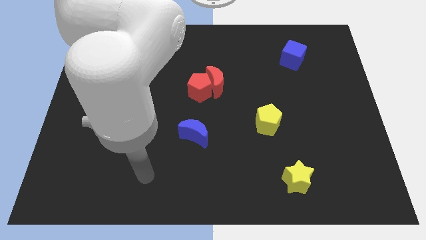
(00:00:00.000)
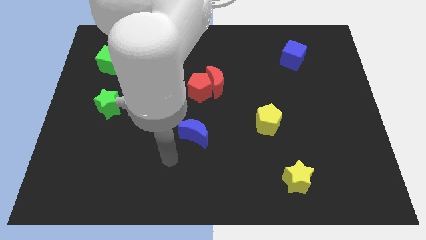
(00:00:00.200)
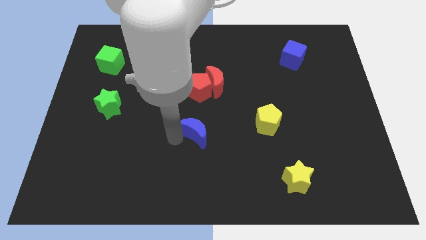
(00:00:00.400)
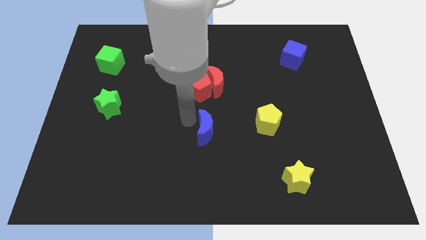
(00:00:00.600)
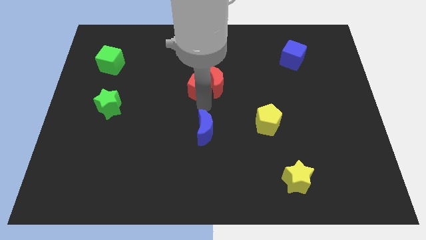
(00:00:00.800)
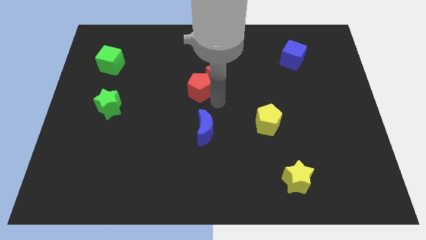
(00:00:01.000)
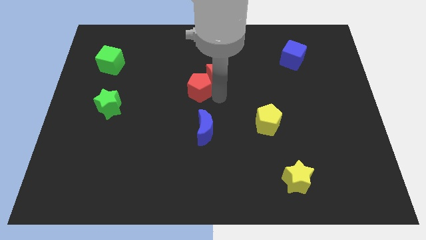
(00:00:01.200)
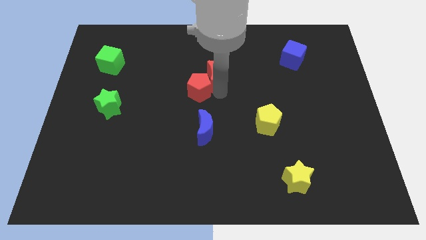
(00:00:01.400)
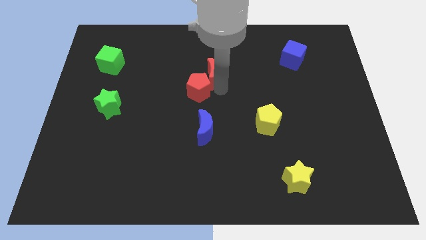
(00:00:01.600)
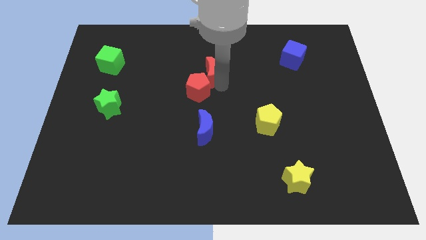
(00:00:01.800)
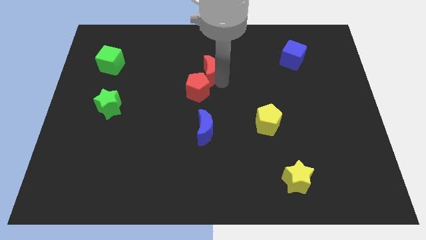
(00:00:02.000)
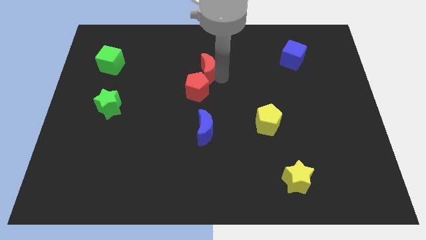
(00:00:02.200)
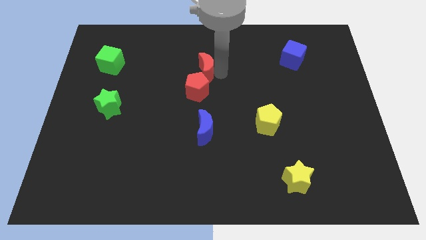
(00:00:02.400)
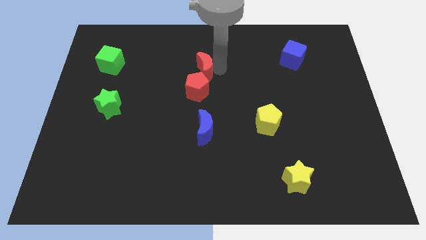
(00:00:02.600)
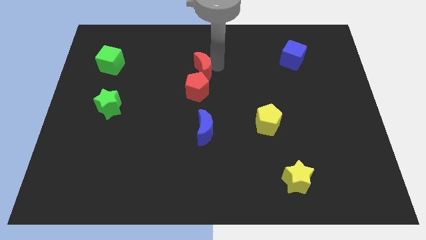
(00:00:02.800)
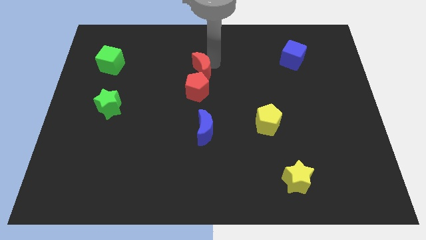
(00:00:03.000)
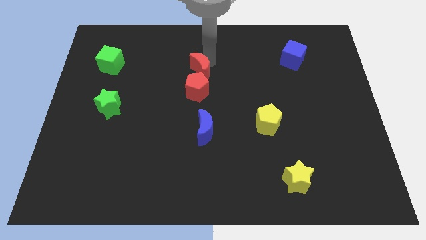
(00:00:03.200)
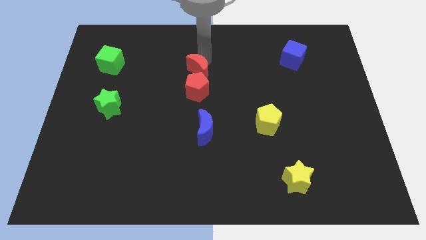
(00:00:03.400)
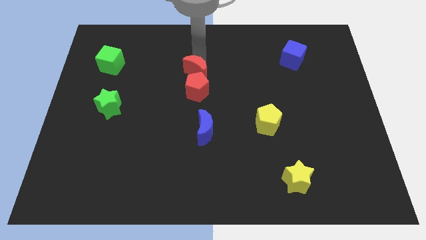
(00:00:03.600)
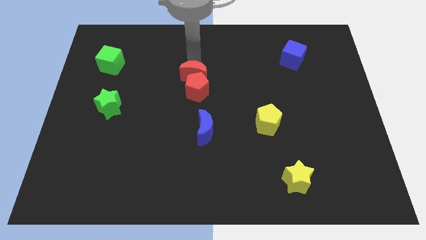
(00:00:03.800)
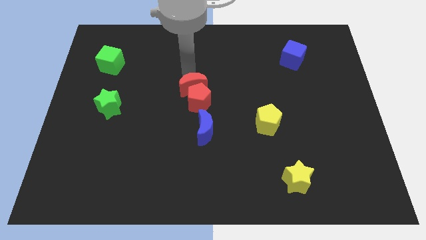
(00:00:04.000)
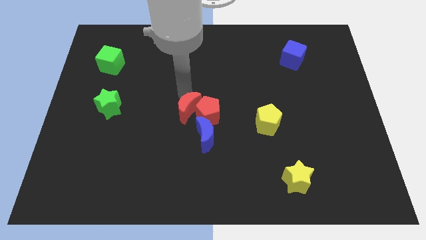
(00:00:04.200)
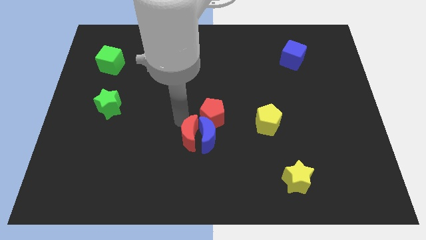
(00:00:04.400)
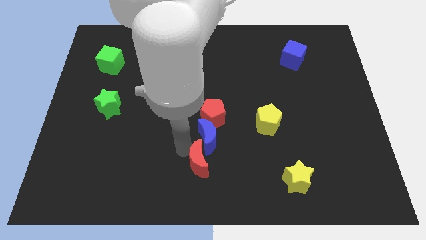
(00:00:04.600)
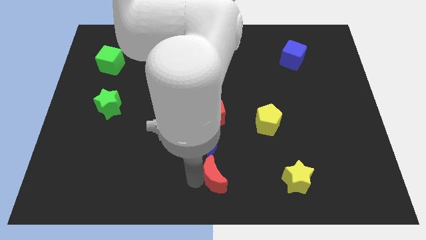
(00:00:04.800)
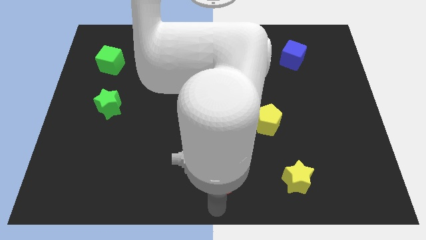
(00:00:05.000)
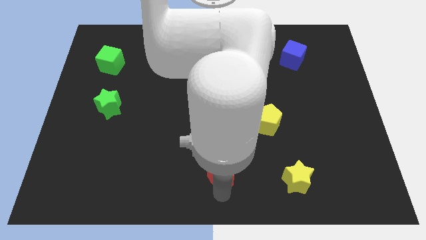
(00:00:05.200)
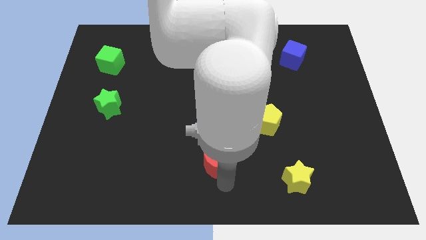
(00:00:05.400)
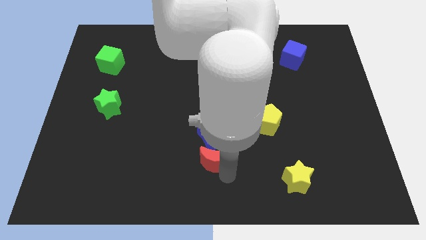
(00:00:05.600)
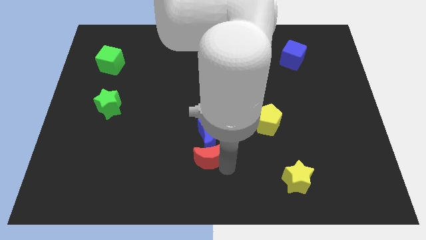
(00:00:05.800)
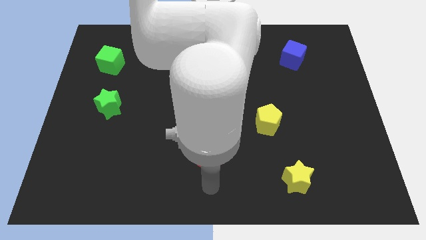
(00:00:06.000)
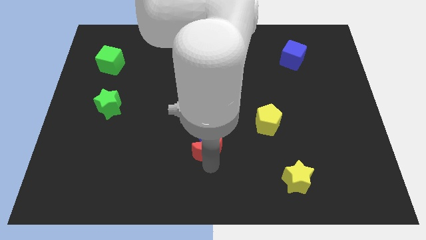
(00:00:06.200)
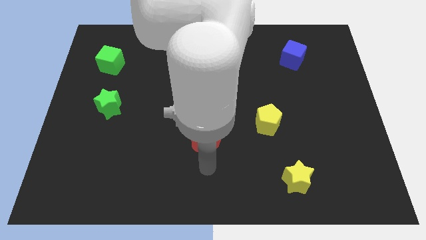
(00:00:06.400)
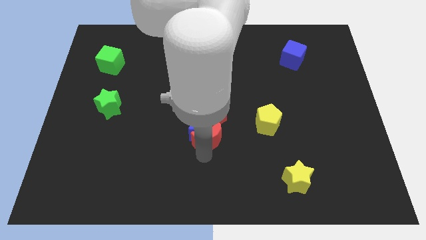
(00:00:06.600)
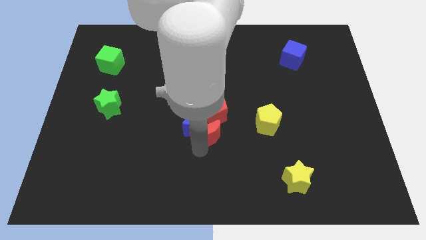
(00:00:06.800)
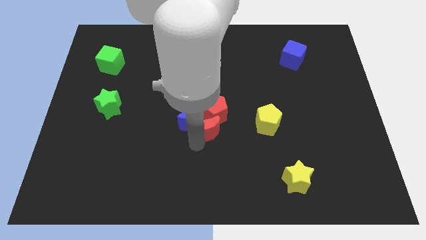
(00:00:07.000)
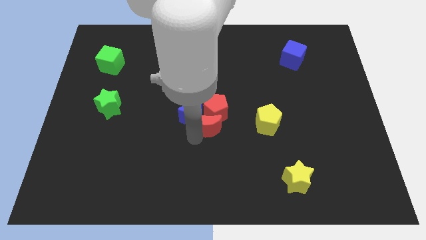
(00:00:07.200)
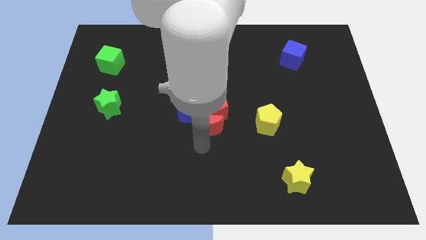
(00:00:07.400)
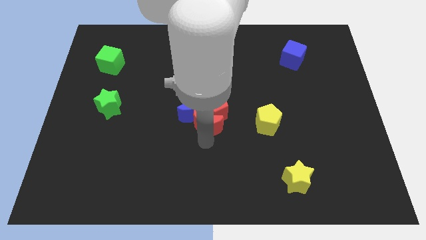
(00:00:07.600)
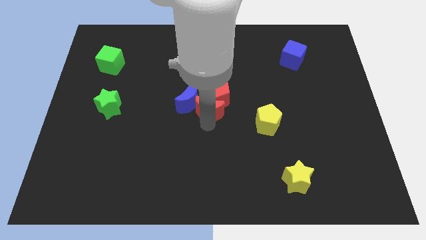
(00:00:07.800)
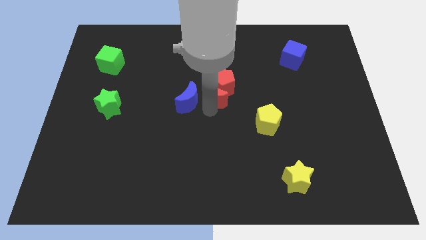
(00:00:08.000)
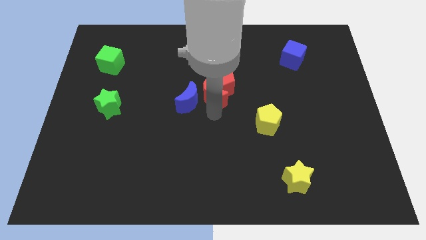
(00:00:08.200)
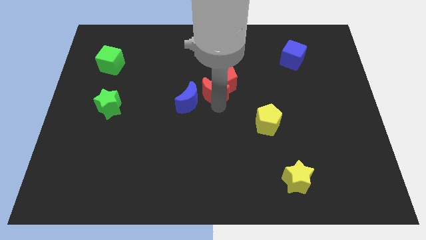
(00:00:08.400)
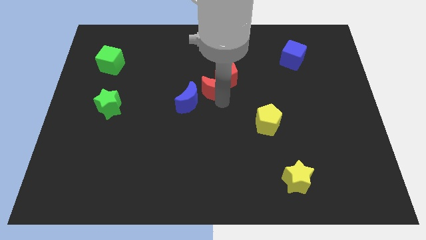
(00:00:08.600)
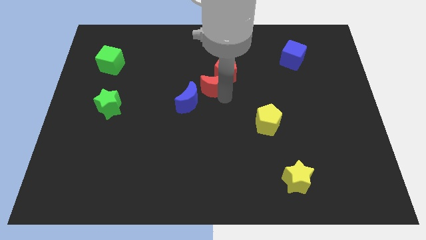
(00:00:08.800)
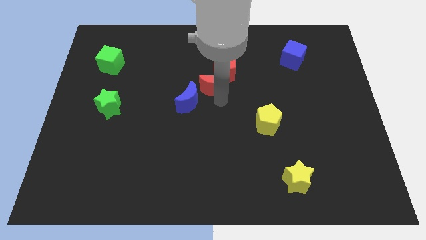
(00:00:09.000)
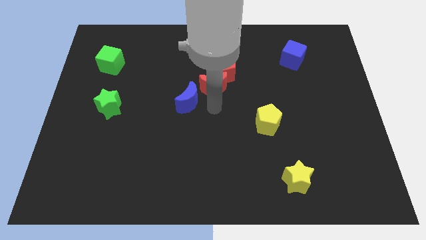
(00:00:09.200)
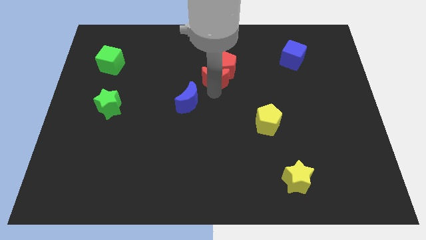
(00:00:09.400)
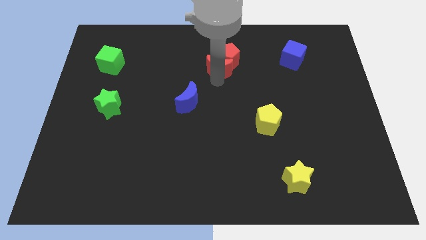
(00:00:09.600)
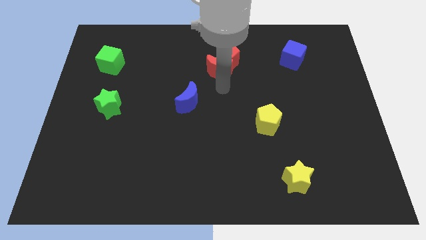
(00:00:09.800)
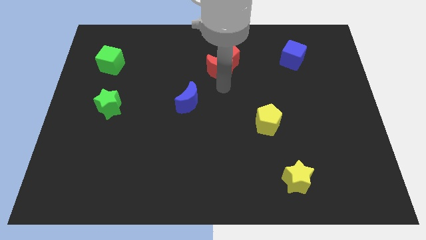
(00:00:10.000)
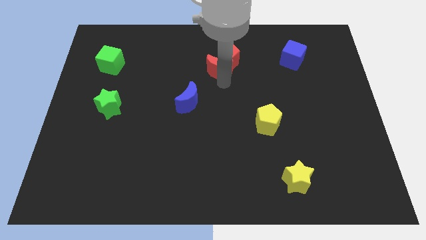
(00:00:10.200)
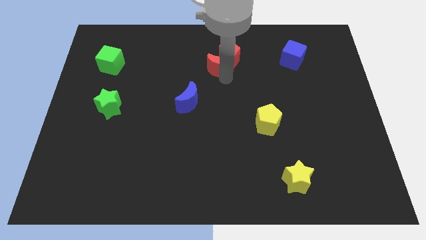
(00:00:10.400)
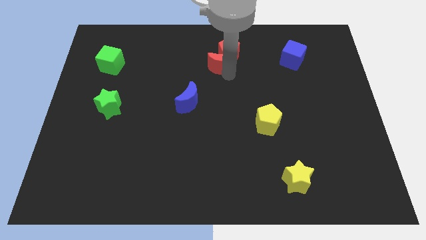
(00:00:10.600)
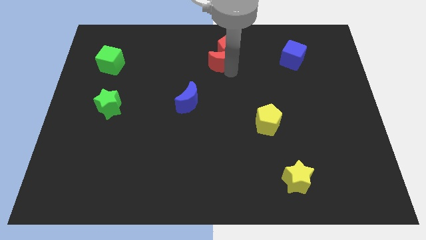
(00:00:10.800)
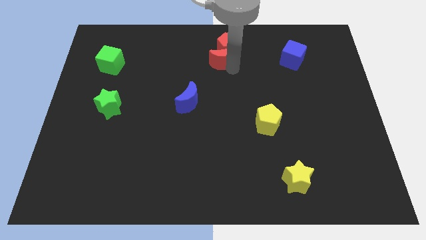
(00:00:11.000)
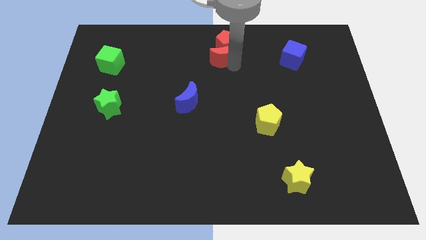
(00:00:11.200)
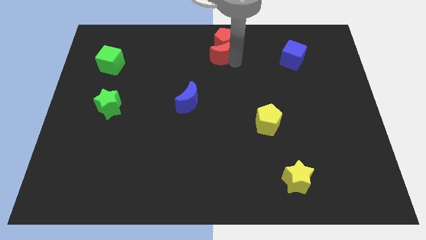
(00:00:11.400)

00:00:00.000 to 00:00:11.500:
move the red moon to the top side
